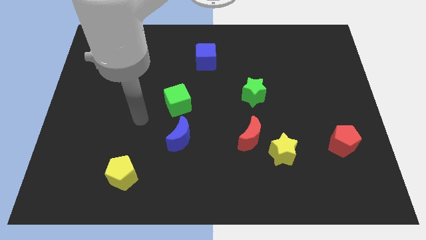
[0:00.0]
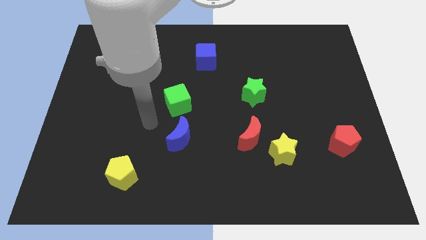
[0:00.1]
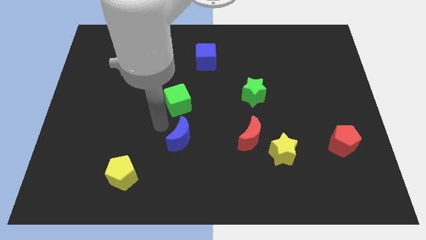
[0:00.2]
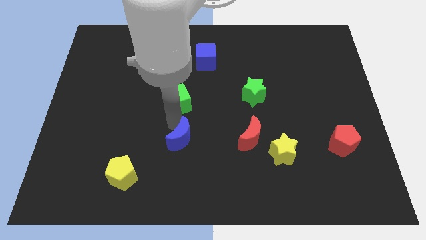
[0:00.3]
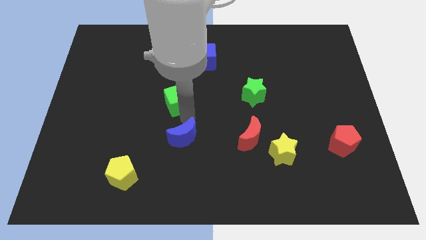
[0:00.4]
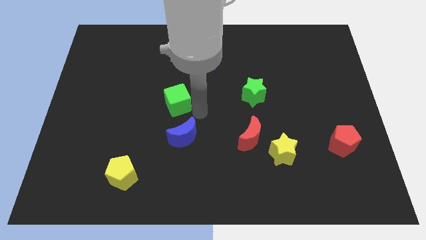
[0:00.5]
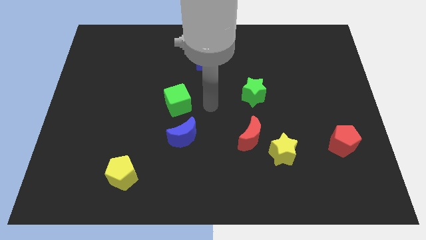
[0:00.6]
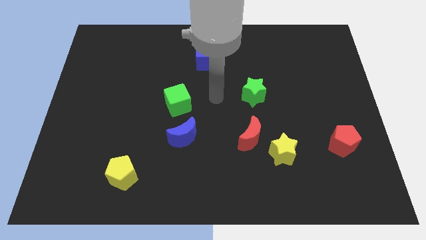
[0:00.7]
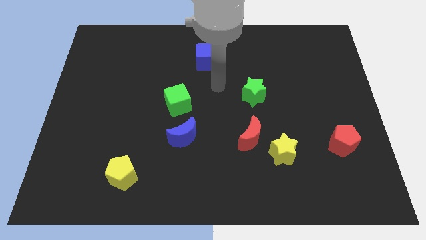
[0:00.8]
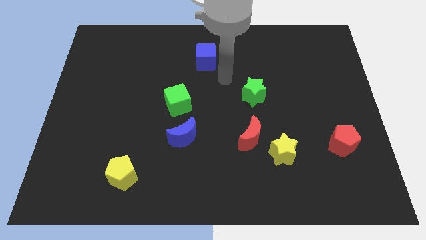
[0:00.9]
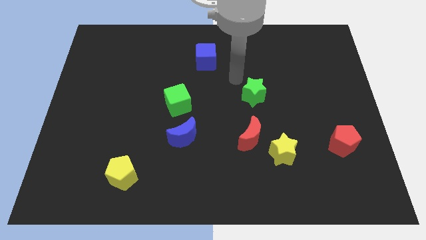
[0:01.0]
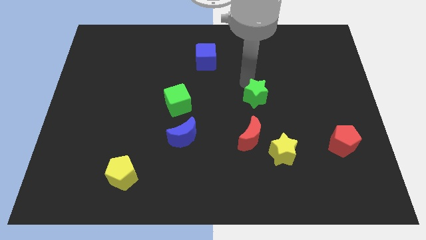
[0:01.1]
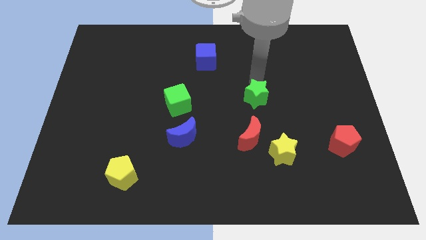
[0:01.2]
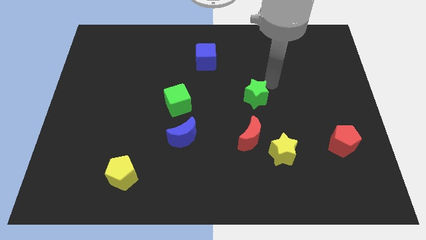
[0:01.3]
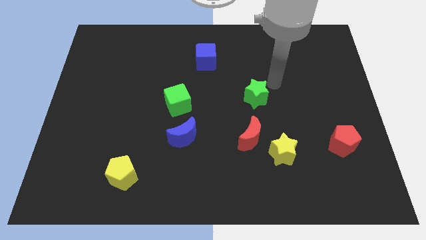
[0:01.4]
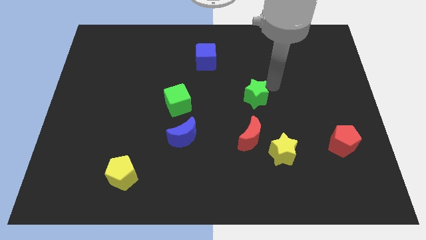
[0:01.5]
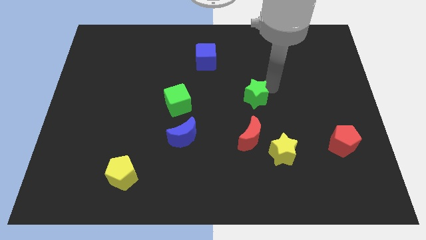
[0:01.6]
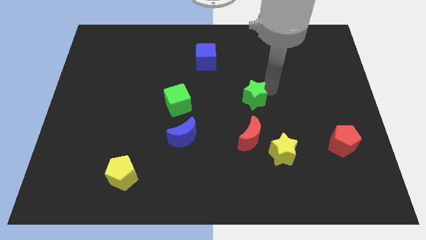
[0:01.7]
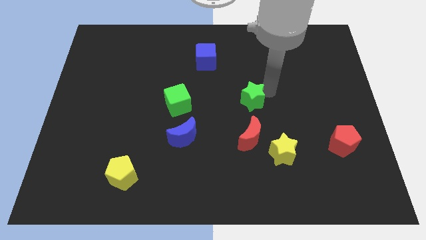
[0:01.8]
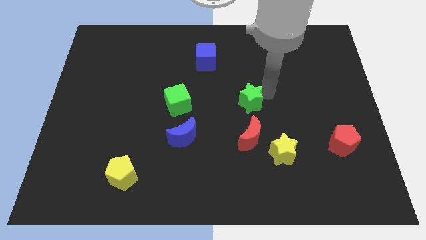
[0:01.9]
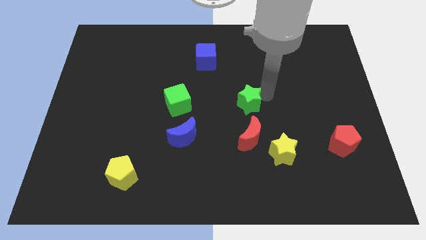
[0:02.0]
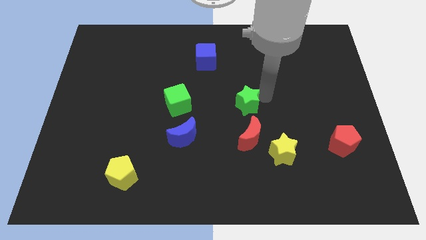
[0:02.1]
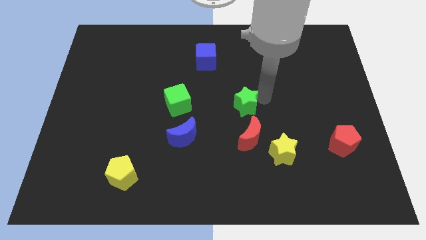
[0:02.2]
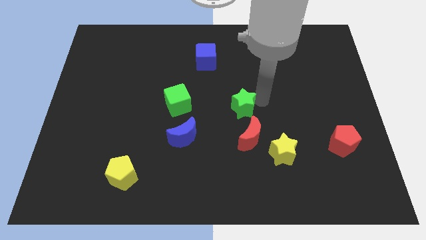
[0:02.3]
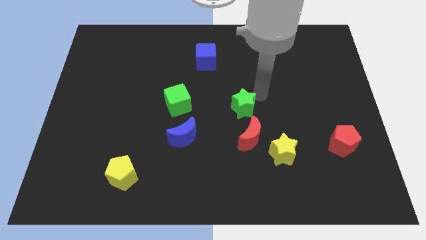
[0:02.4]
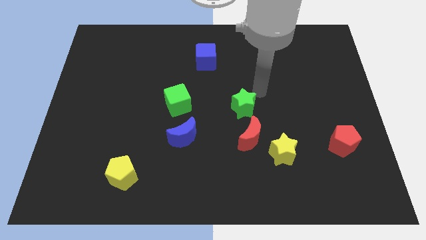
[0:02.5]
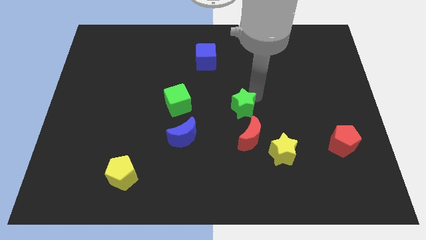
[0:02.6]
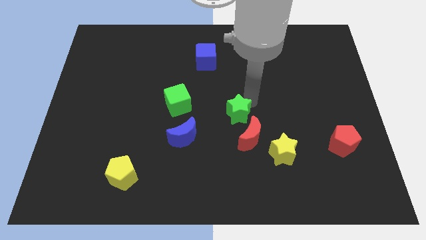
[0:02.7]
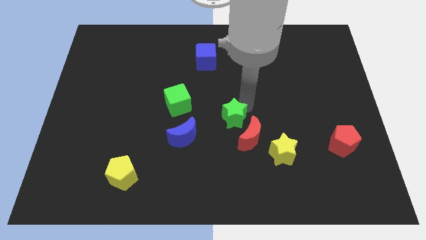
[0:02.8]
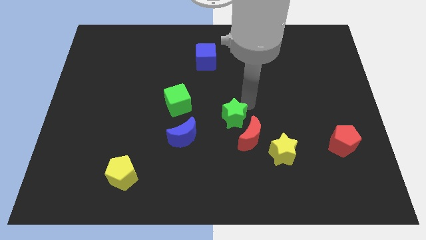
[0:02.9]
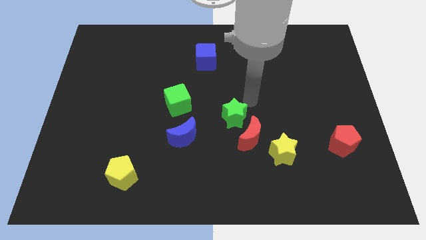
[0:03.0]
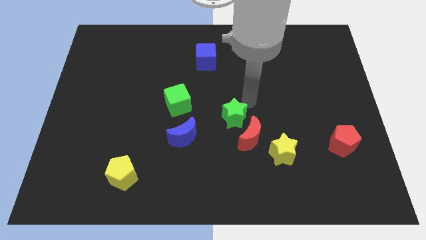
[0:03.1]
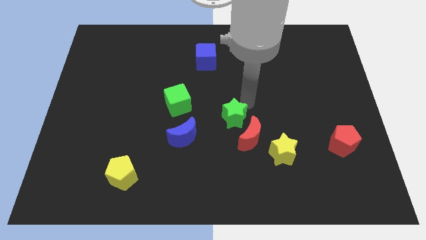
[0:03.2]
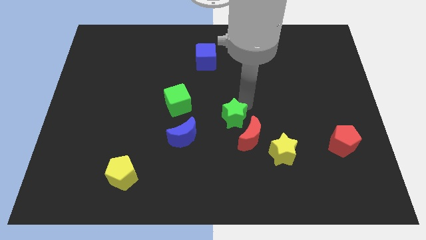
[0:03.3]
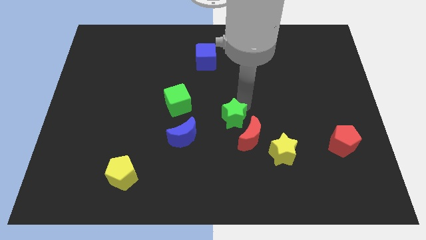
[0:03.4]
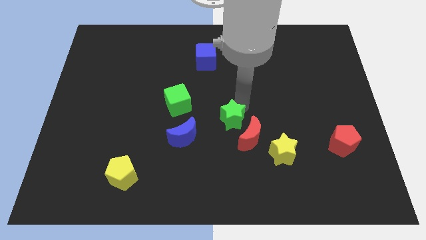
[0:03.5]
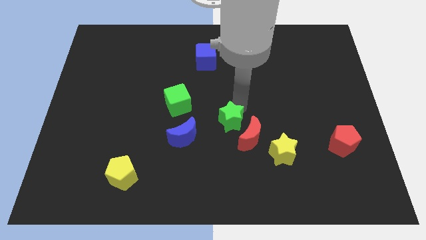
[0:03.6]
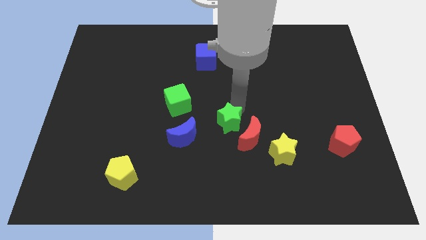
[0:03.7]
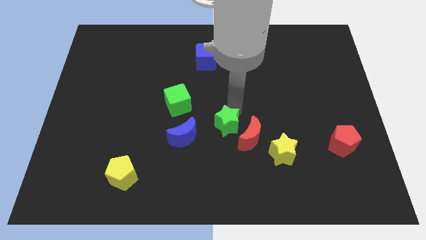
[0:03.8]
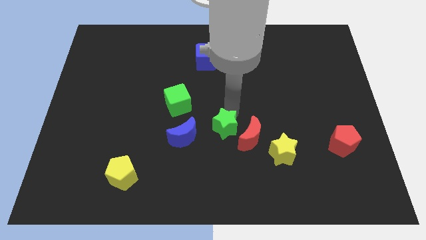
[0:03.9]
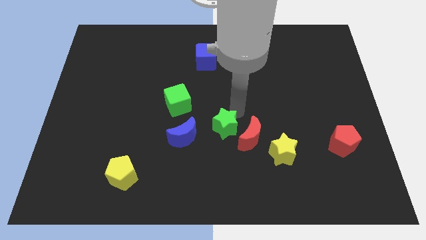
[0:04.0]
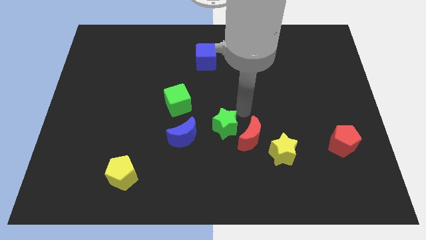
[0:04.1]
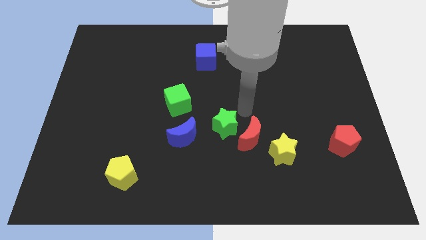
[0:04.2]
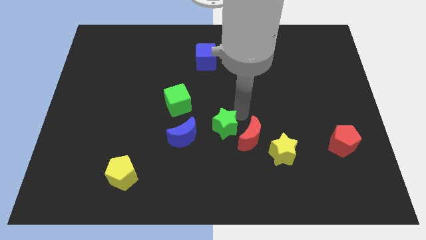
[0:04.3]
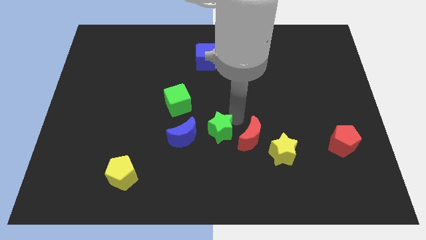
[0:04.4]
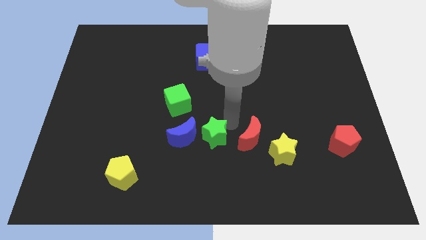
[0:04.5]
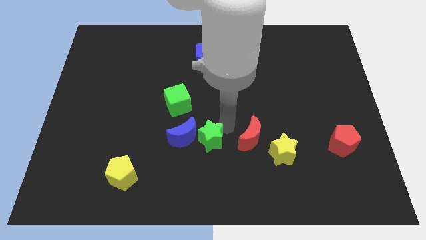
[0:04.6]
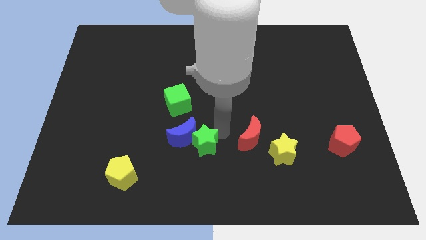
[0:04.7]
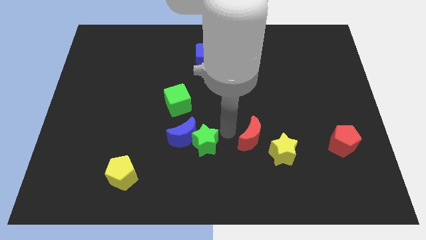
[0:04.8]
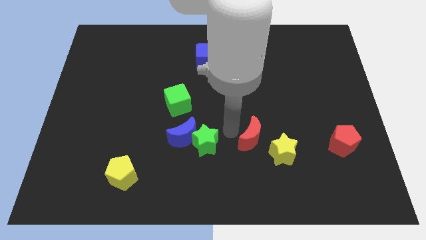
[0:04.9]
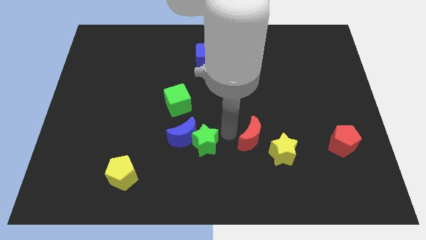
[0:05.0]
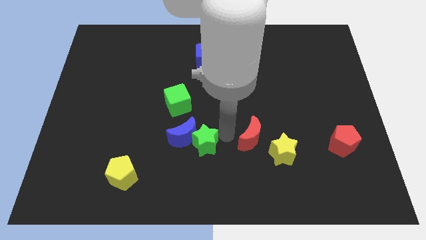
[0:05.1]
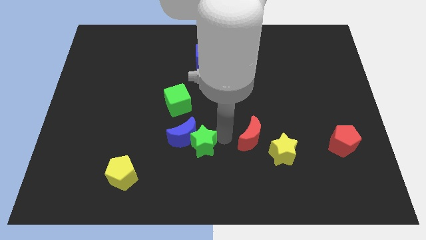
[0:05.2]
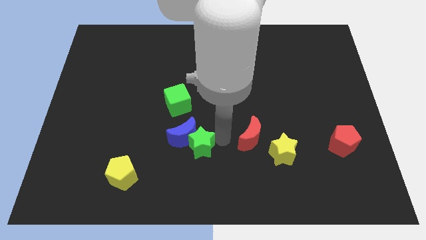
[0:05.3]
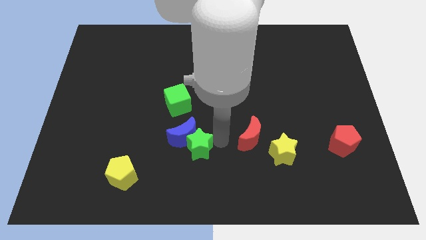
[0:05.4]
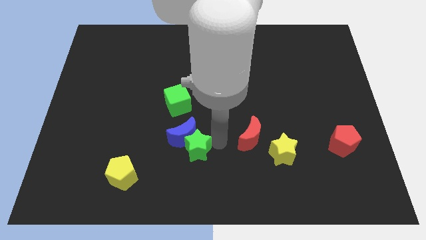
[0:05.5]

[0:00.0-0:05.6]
push the green star down and to the left

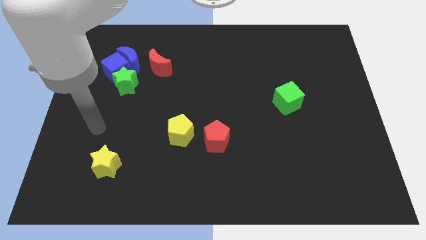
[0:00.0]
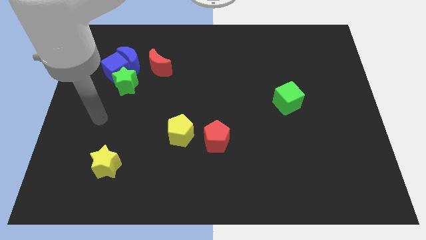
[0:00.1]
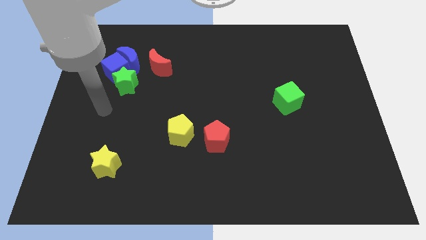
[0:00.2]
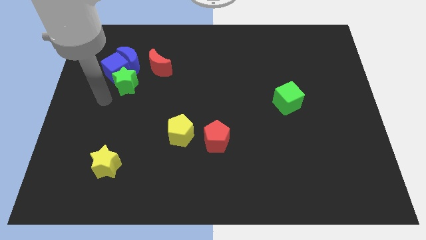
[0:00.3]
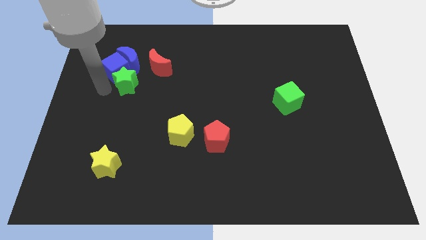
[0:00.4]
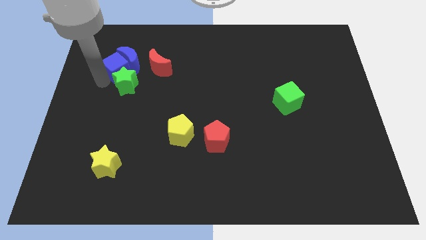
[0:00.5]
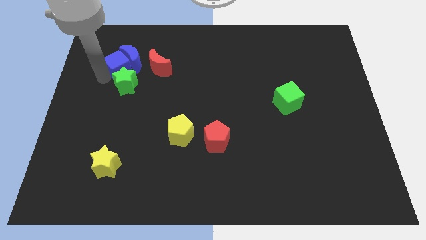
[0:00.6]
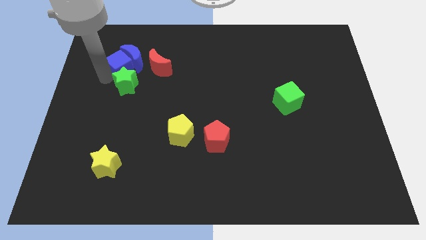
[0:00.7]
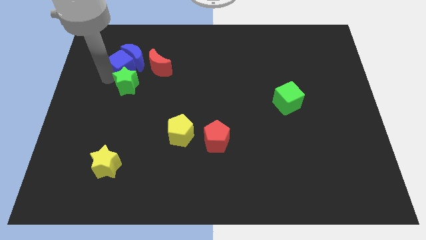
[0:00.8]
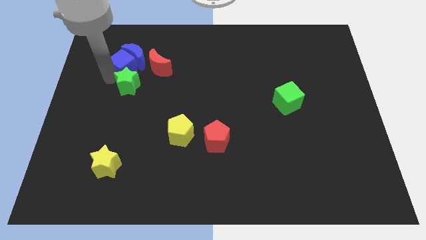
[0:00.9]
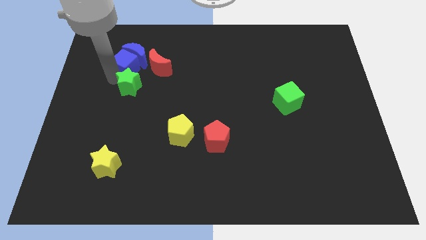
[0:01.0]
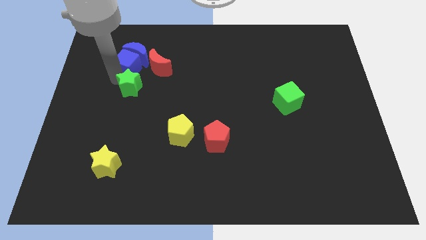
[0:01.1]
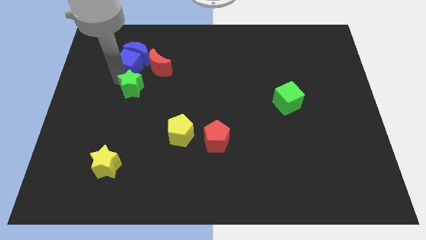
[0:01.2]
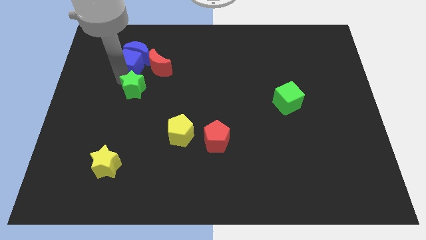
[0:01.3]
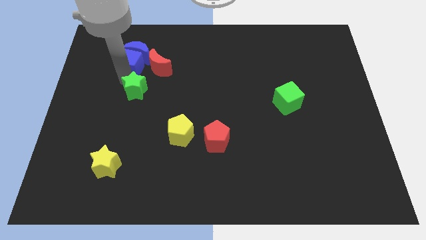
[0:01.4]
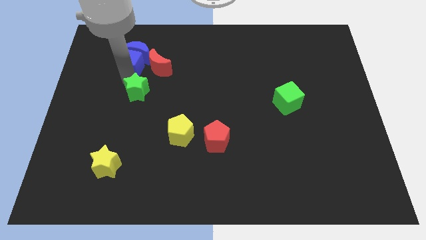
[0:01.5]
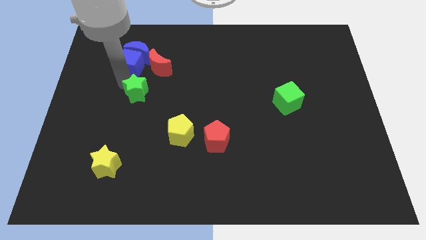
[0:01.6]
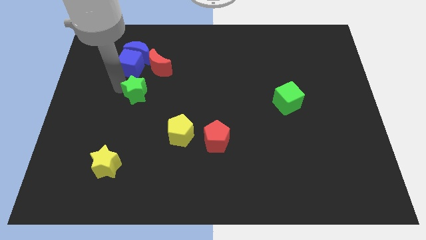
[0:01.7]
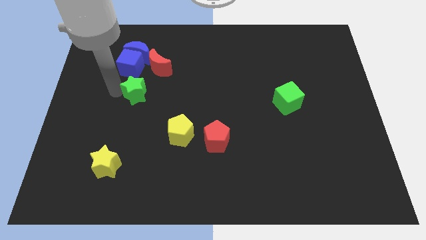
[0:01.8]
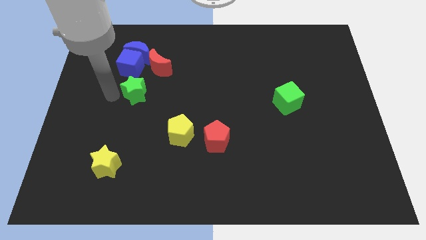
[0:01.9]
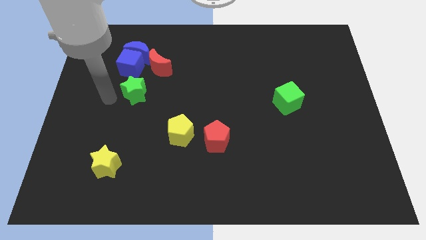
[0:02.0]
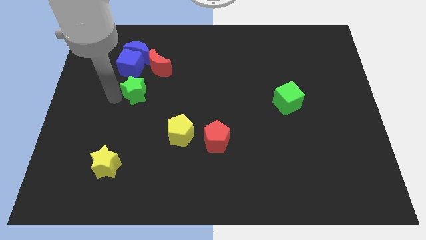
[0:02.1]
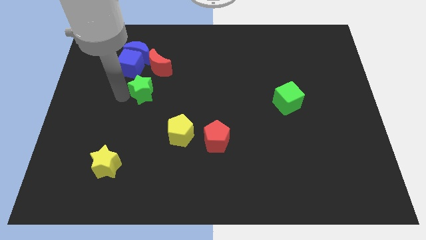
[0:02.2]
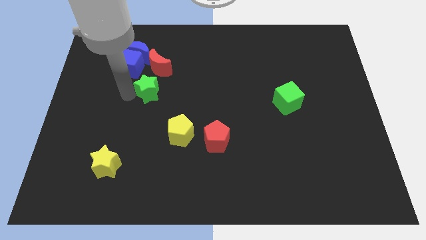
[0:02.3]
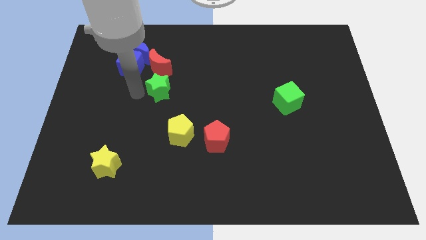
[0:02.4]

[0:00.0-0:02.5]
slightly slide the green star right
